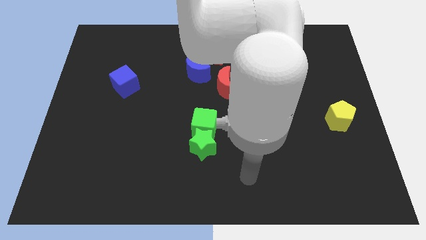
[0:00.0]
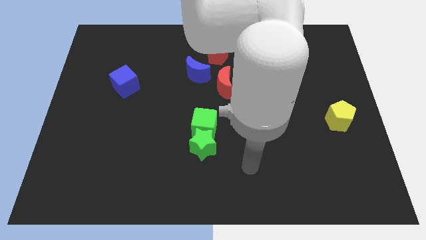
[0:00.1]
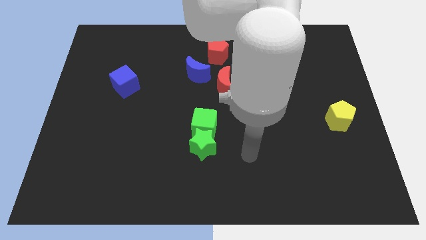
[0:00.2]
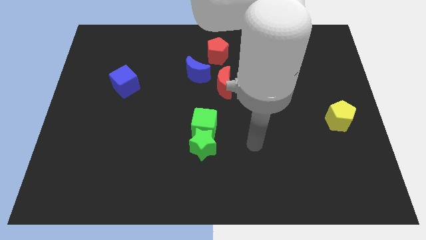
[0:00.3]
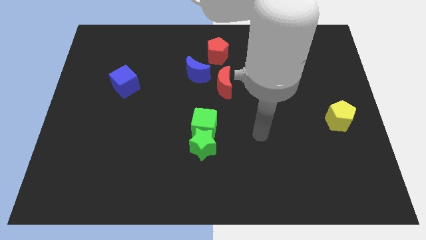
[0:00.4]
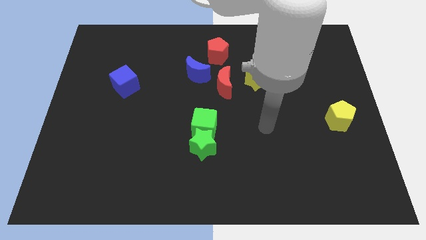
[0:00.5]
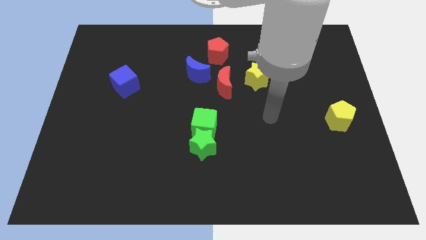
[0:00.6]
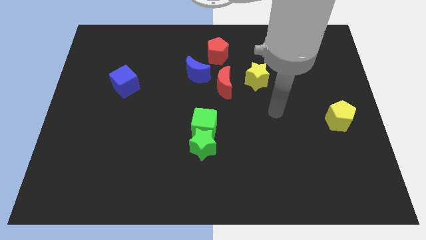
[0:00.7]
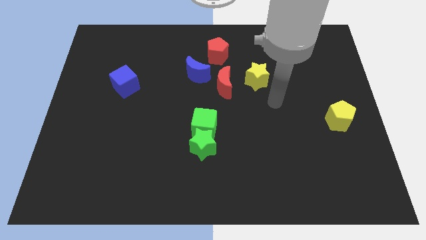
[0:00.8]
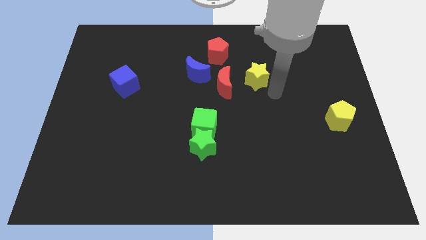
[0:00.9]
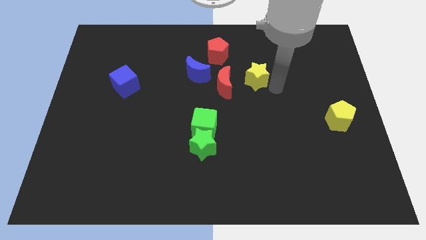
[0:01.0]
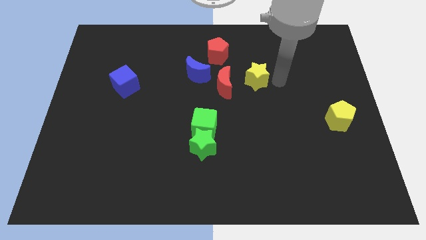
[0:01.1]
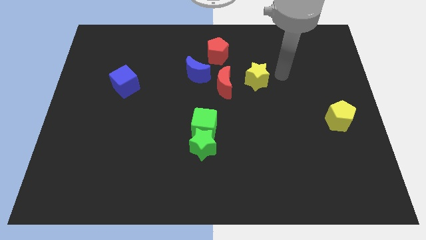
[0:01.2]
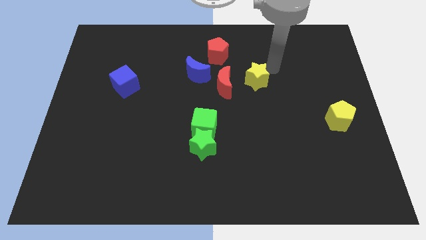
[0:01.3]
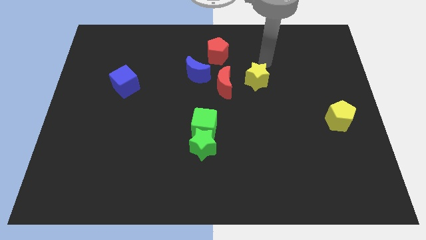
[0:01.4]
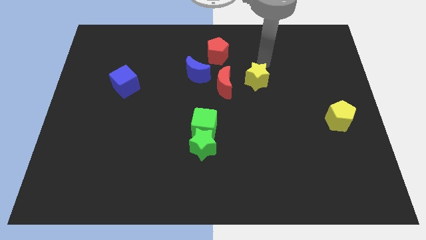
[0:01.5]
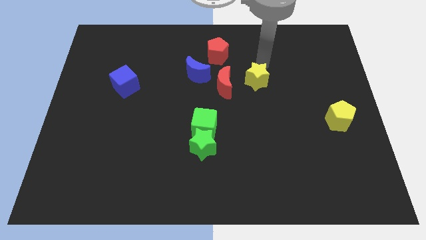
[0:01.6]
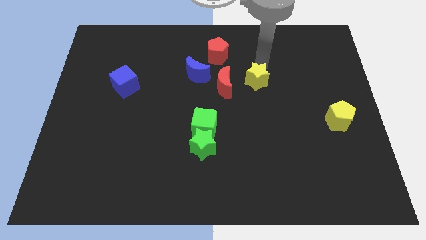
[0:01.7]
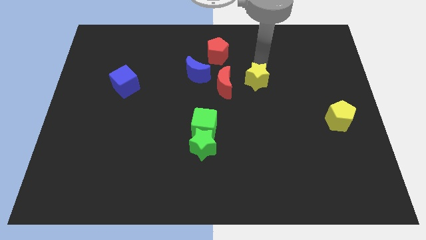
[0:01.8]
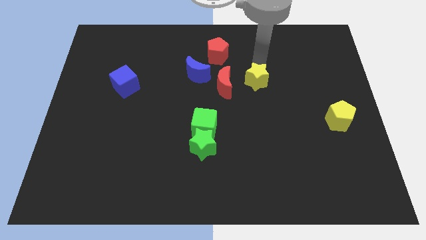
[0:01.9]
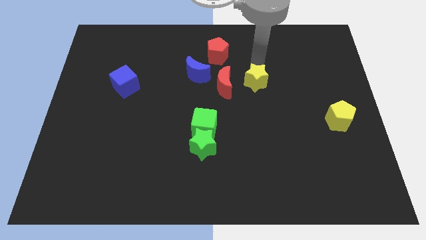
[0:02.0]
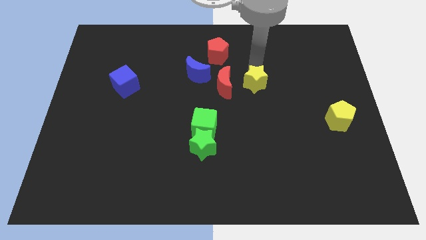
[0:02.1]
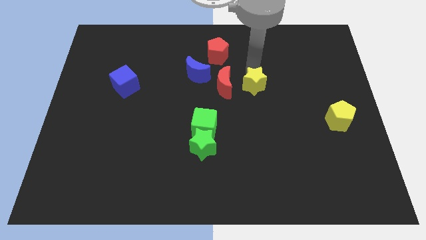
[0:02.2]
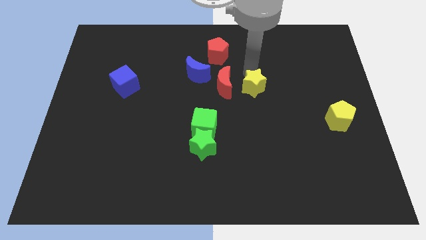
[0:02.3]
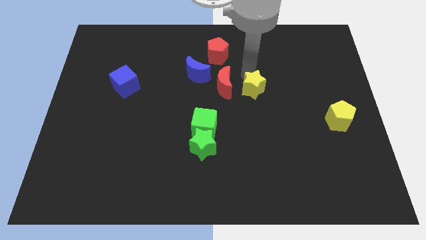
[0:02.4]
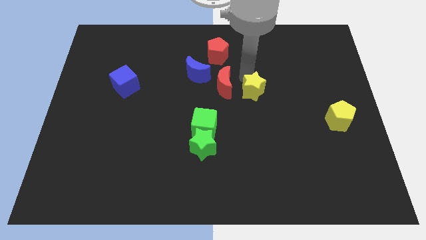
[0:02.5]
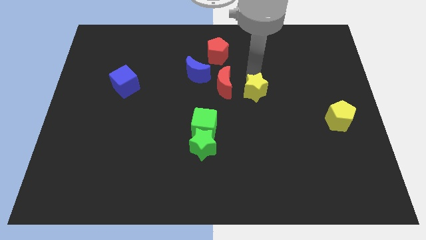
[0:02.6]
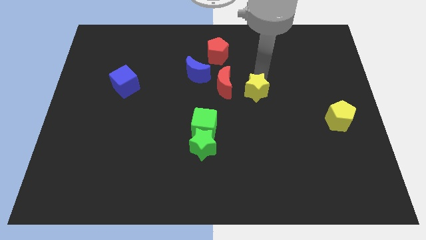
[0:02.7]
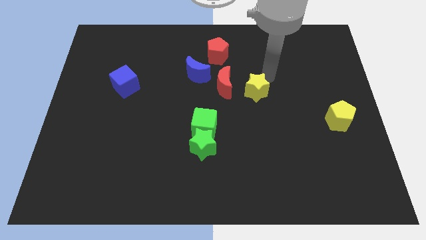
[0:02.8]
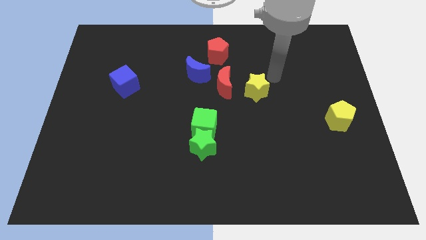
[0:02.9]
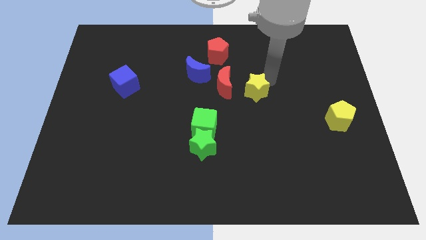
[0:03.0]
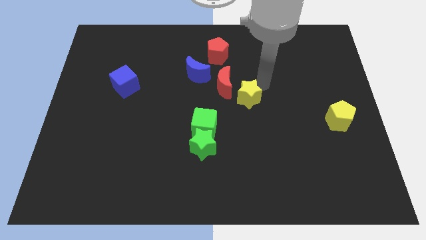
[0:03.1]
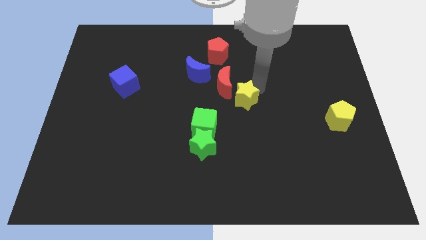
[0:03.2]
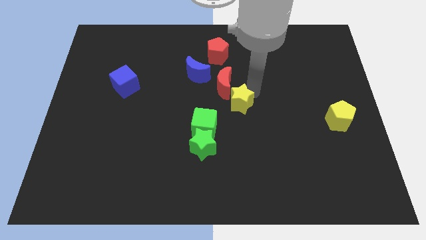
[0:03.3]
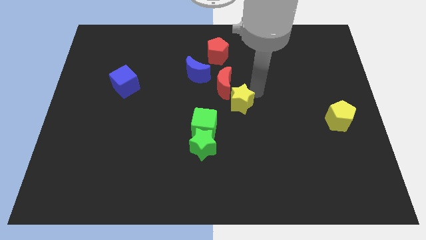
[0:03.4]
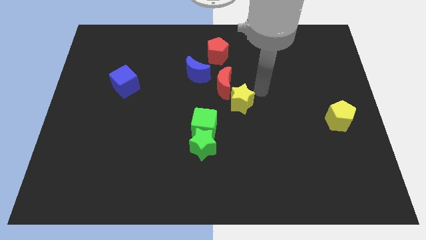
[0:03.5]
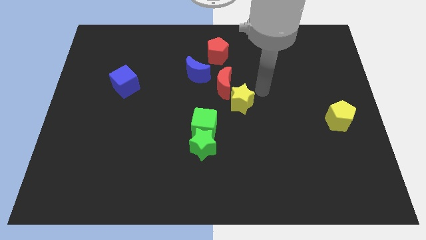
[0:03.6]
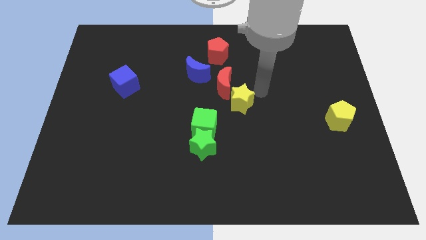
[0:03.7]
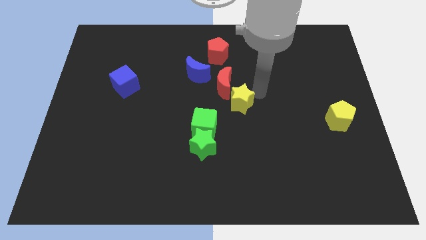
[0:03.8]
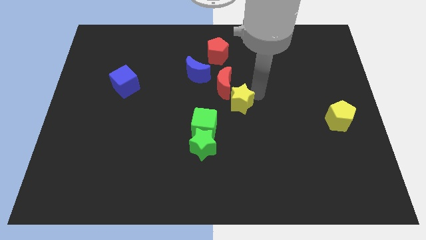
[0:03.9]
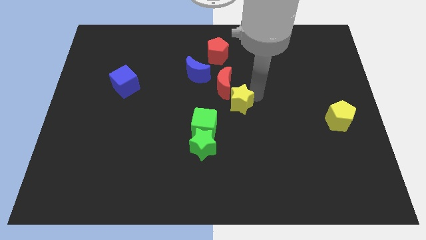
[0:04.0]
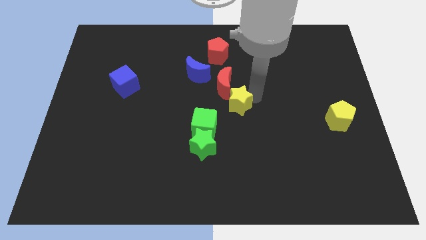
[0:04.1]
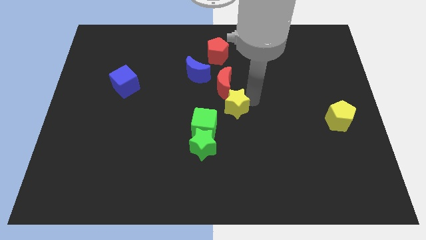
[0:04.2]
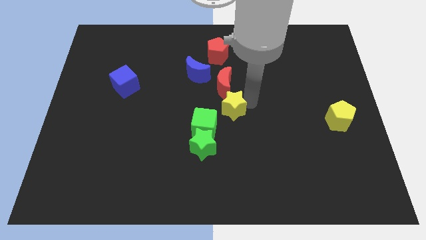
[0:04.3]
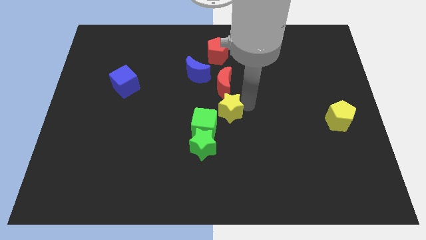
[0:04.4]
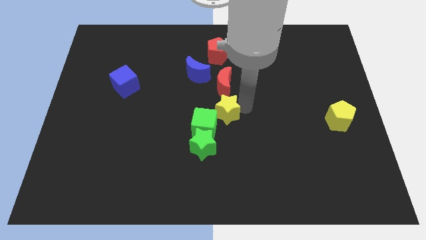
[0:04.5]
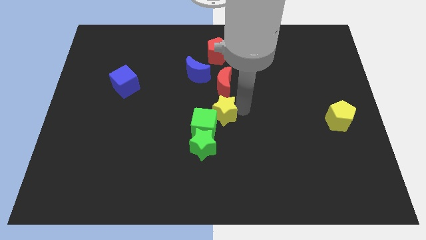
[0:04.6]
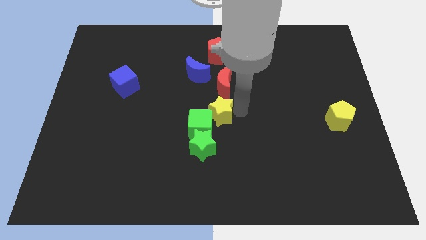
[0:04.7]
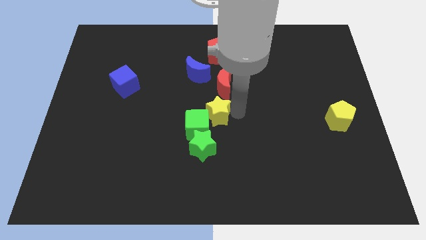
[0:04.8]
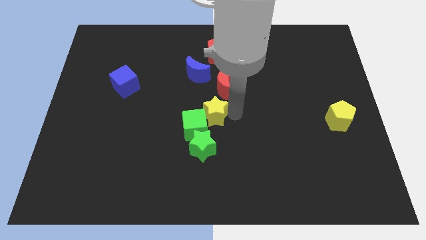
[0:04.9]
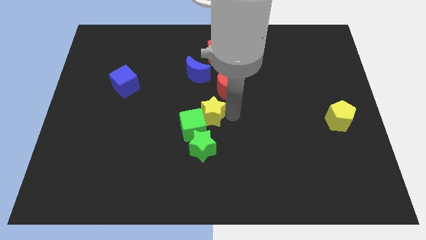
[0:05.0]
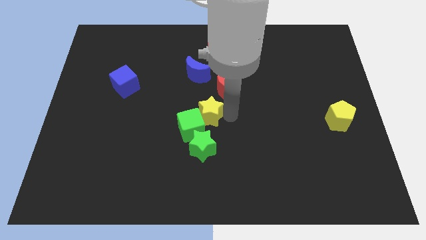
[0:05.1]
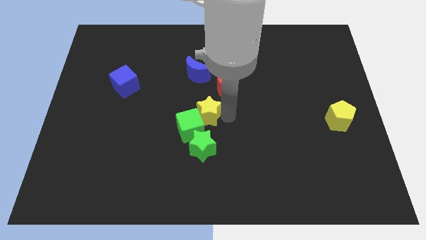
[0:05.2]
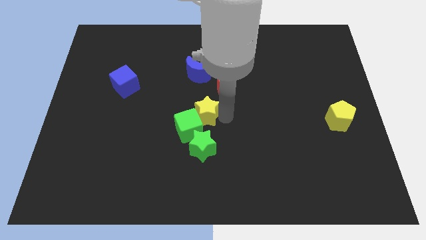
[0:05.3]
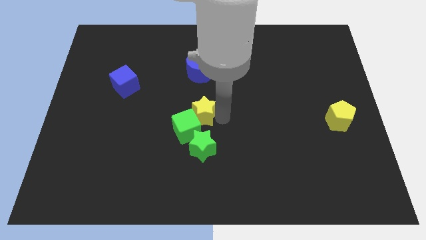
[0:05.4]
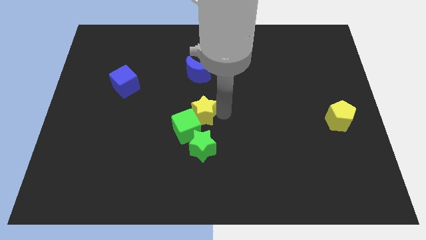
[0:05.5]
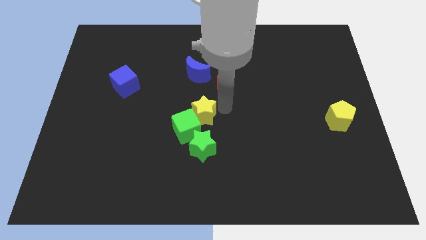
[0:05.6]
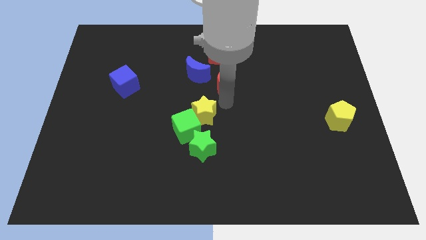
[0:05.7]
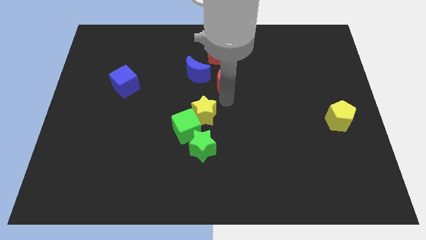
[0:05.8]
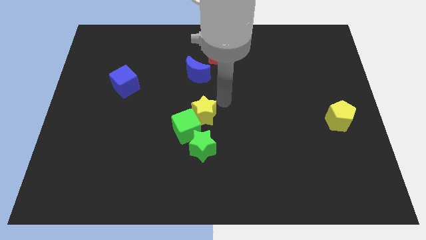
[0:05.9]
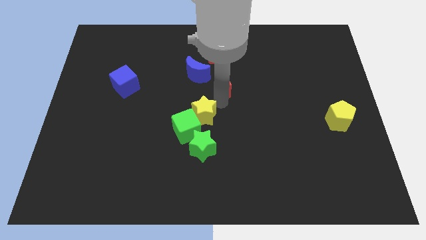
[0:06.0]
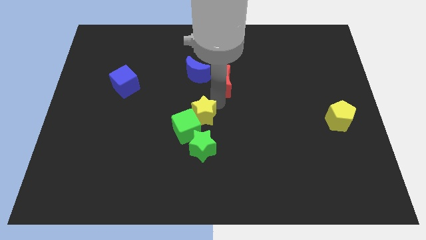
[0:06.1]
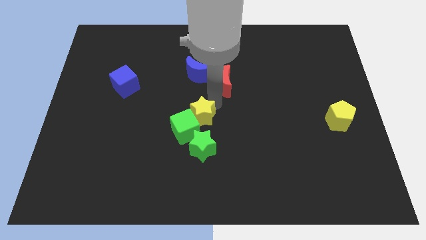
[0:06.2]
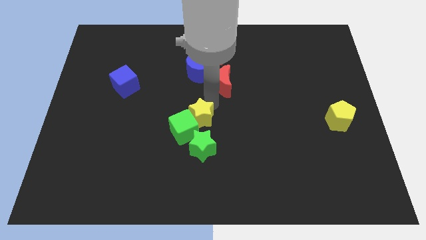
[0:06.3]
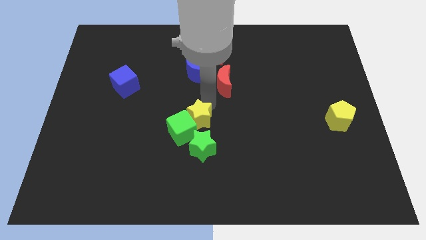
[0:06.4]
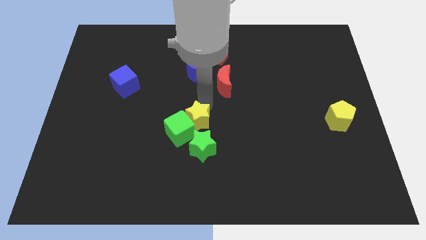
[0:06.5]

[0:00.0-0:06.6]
slide the yellow star diagonally up and to the left of the green star

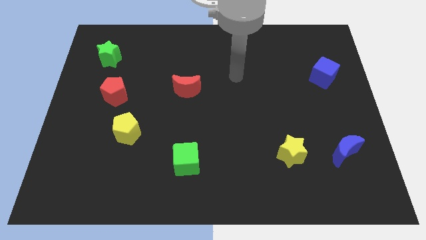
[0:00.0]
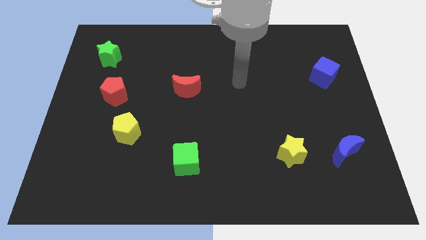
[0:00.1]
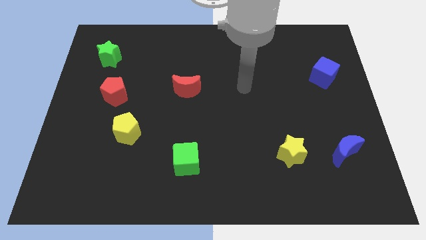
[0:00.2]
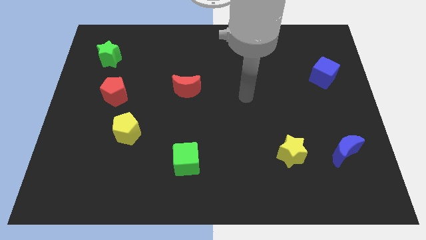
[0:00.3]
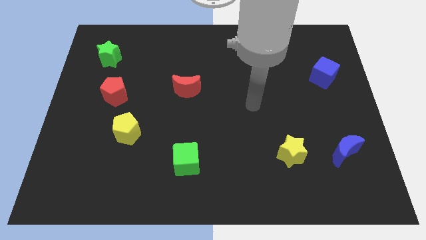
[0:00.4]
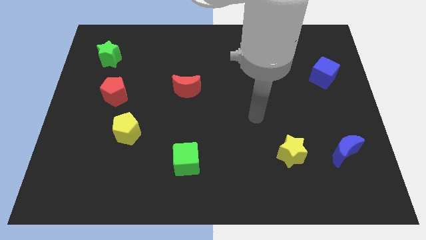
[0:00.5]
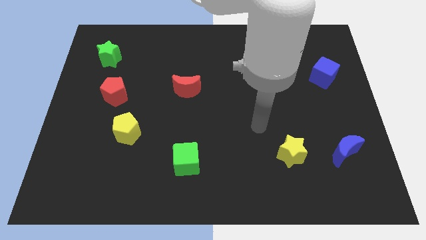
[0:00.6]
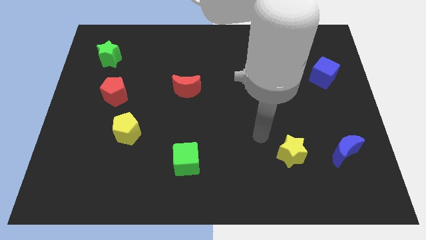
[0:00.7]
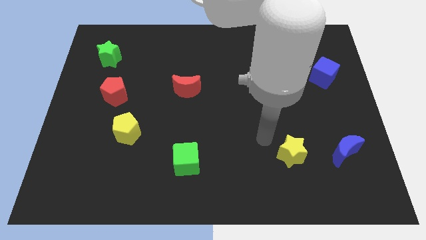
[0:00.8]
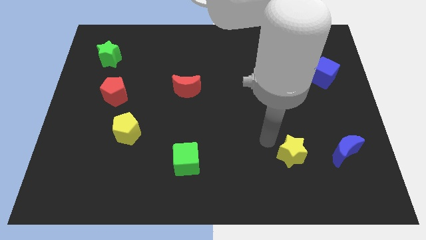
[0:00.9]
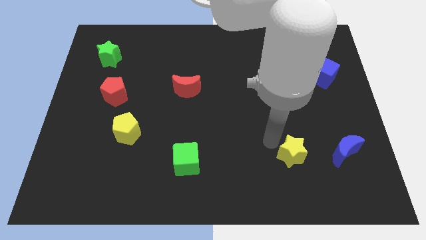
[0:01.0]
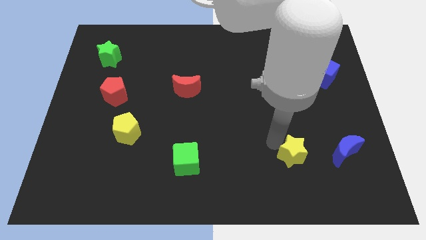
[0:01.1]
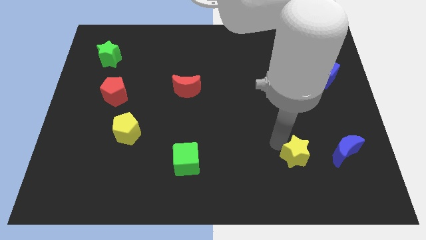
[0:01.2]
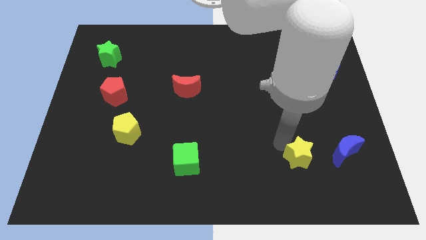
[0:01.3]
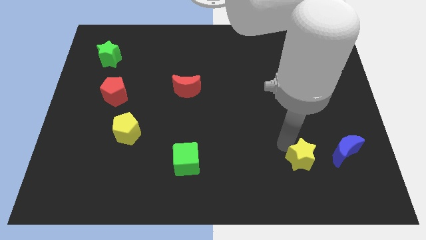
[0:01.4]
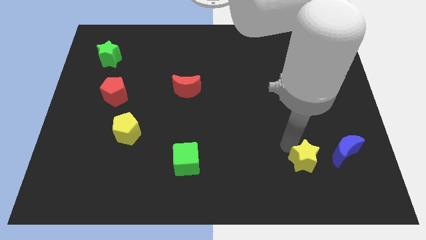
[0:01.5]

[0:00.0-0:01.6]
move the yellow star diagonally down and to the left of the blue moon
